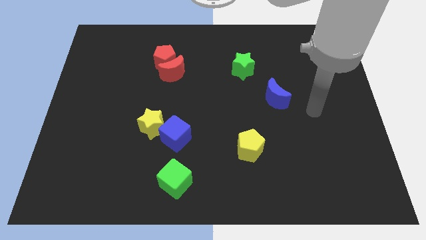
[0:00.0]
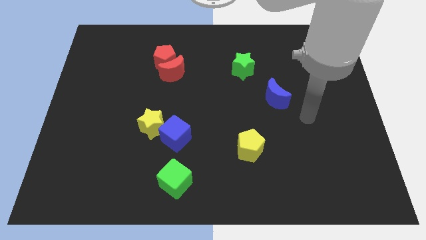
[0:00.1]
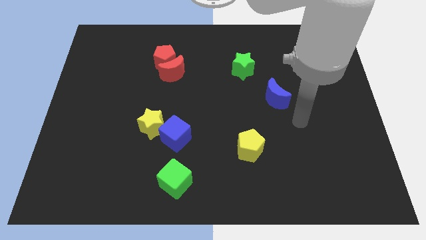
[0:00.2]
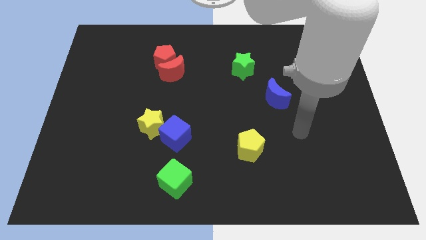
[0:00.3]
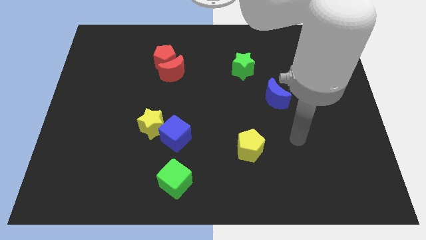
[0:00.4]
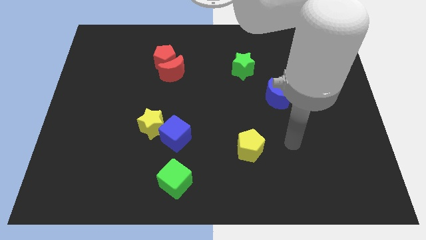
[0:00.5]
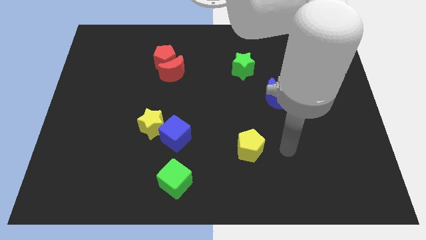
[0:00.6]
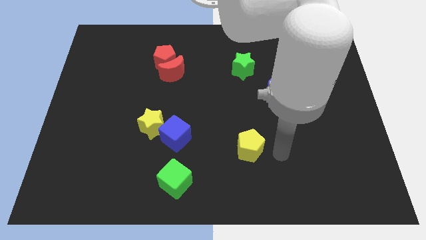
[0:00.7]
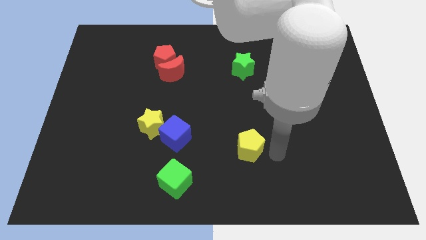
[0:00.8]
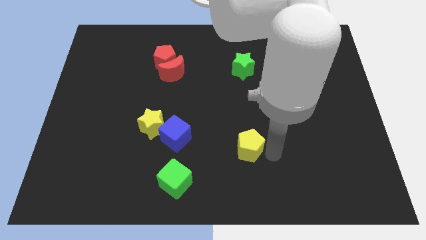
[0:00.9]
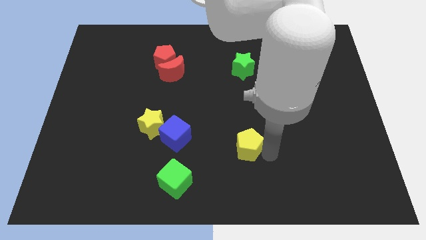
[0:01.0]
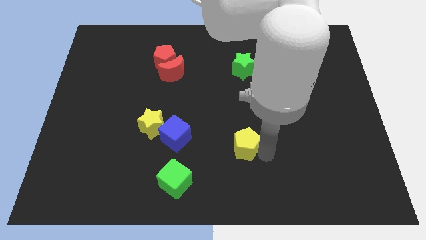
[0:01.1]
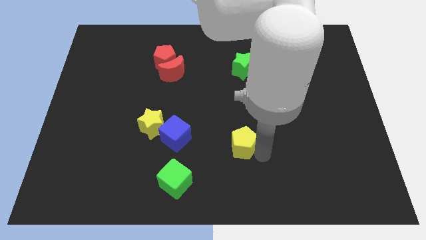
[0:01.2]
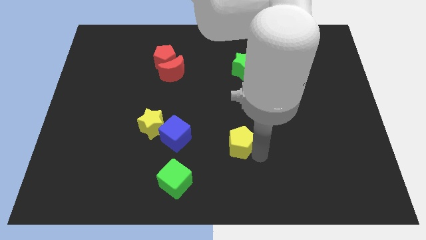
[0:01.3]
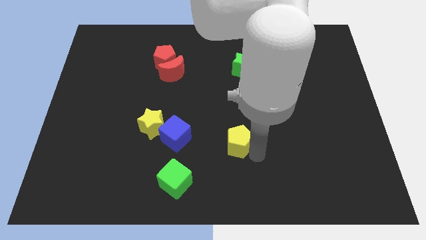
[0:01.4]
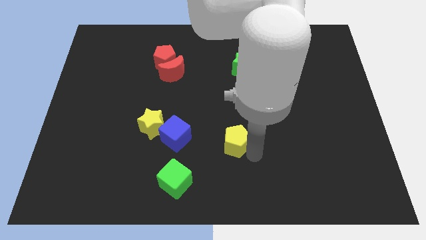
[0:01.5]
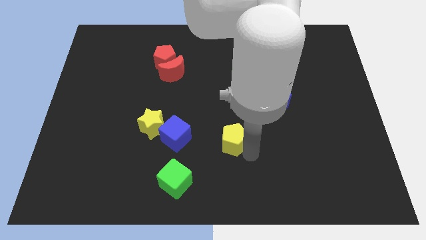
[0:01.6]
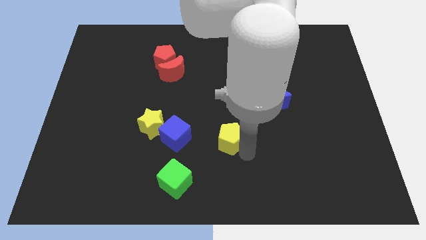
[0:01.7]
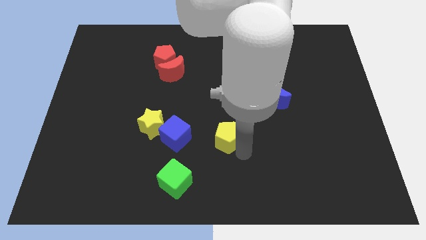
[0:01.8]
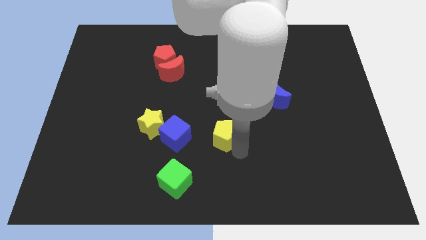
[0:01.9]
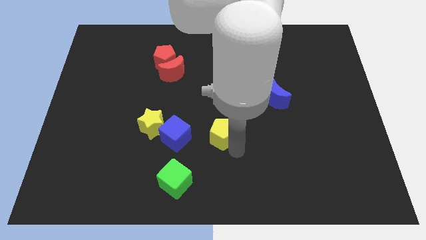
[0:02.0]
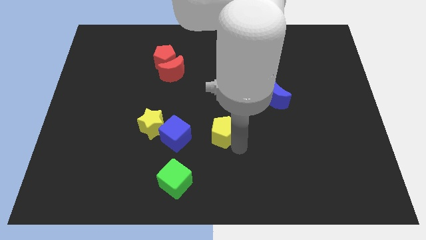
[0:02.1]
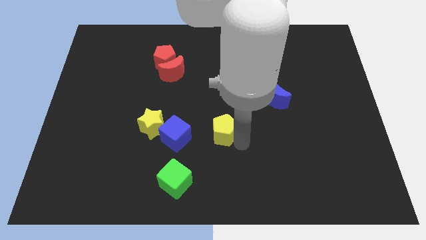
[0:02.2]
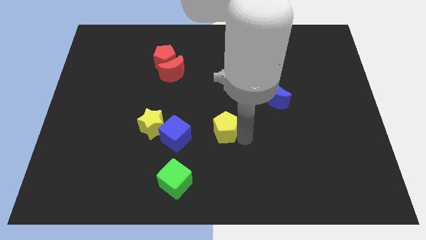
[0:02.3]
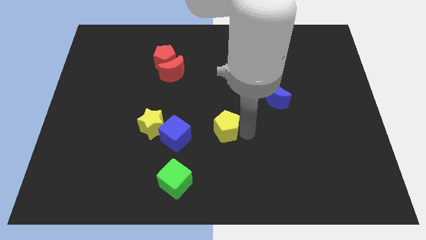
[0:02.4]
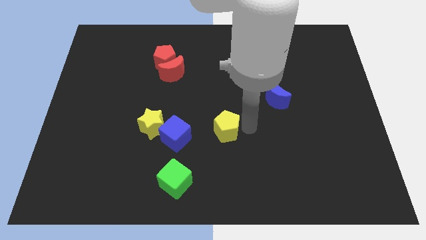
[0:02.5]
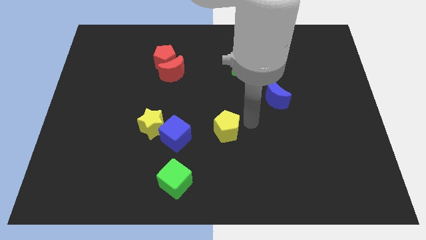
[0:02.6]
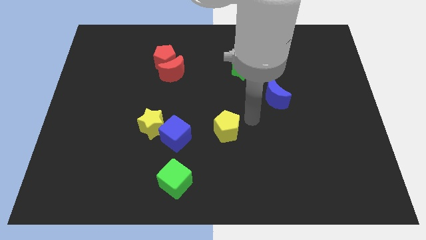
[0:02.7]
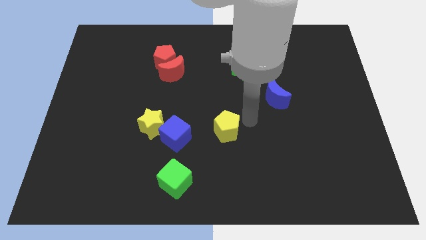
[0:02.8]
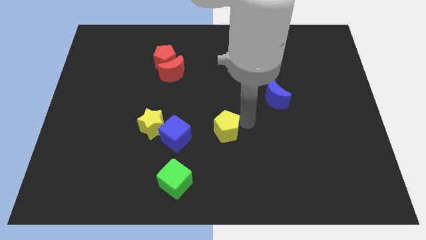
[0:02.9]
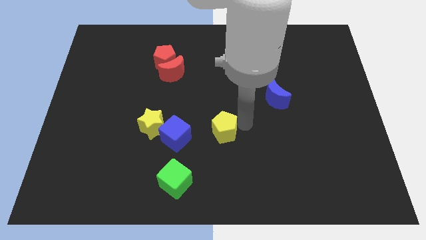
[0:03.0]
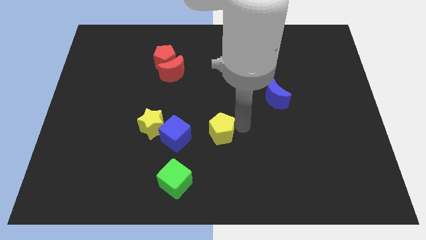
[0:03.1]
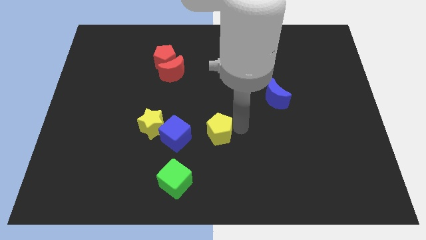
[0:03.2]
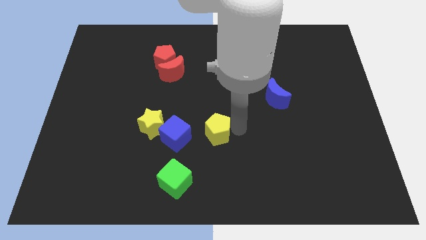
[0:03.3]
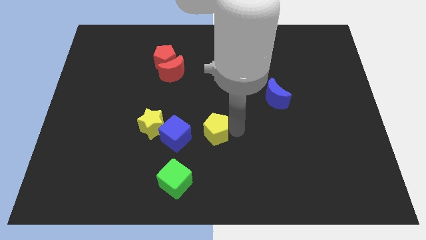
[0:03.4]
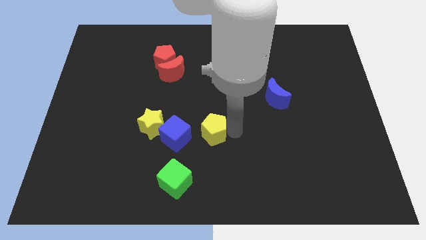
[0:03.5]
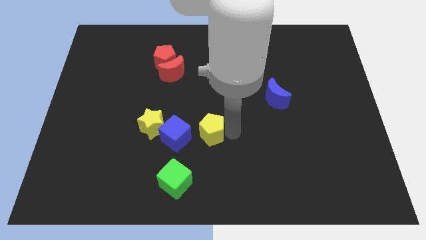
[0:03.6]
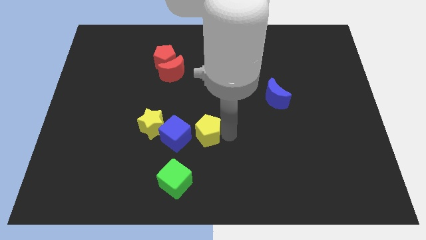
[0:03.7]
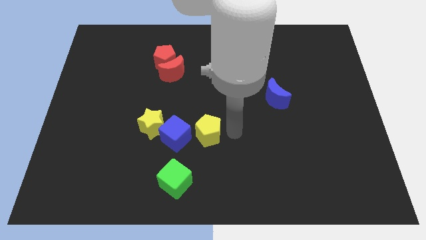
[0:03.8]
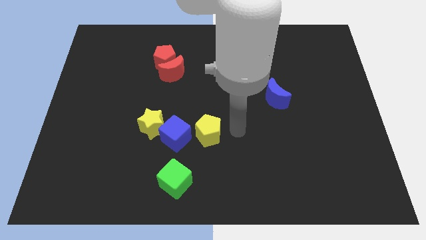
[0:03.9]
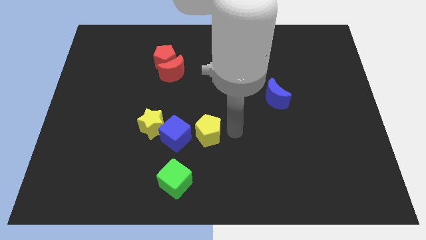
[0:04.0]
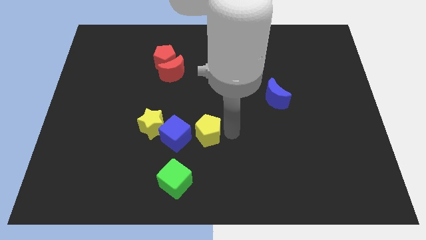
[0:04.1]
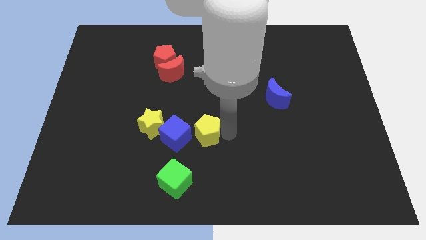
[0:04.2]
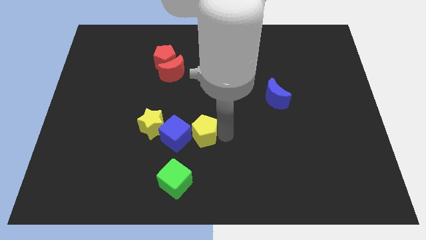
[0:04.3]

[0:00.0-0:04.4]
slide the yellow pentagon next to the blue cube

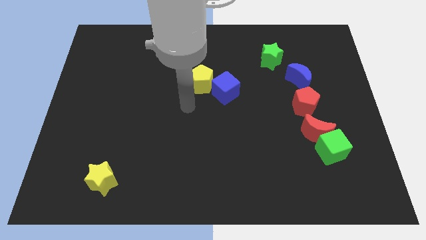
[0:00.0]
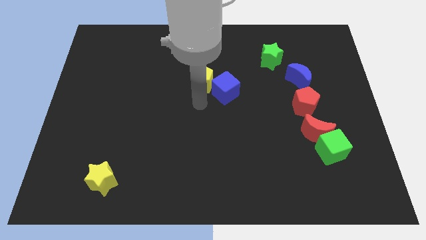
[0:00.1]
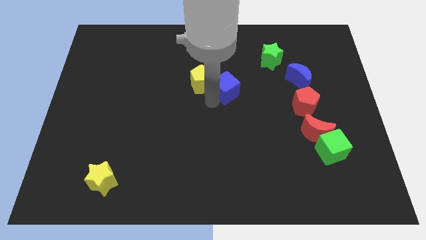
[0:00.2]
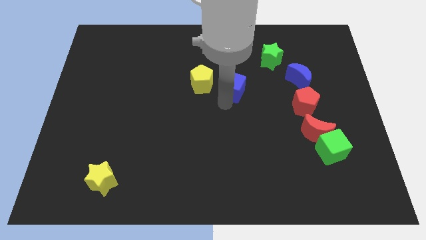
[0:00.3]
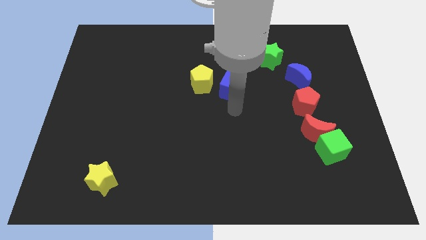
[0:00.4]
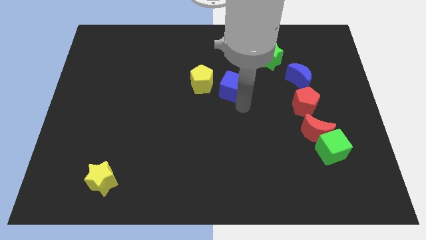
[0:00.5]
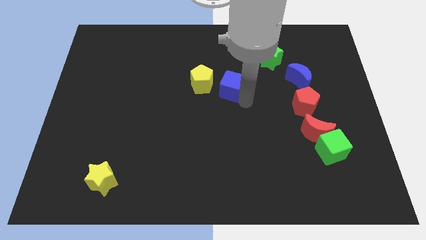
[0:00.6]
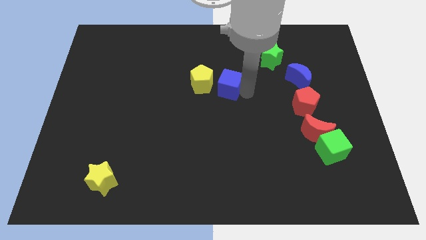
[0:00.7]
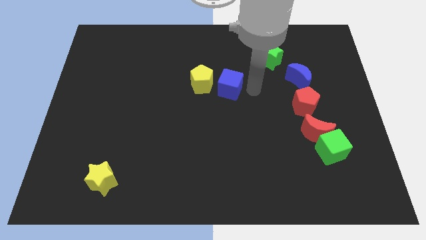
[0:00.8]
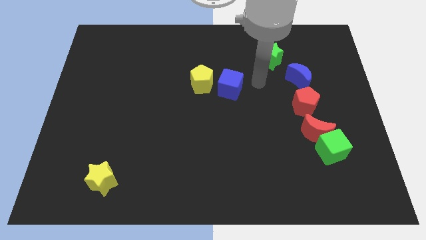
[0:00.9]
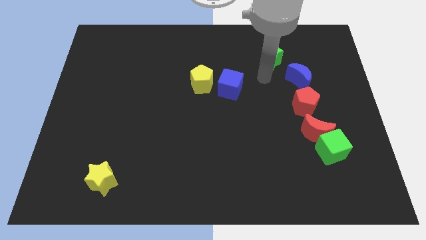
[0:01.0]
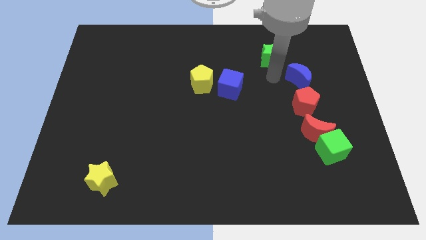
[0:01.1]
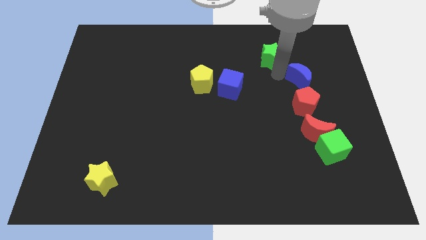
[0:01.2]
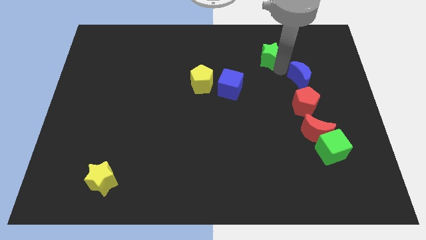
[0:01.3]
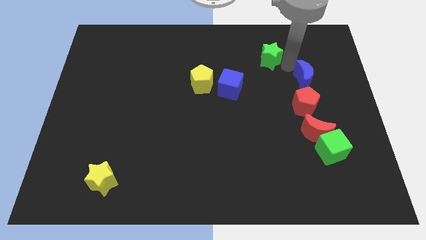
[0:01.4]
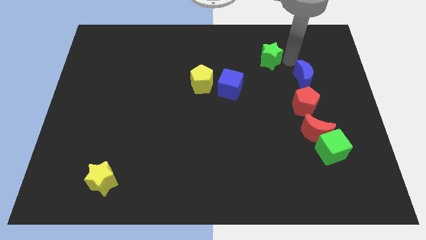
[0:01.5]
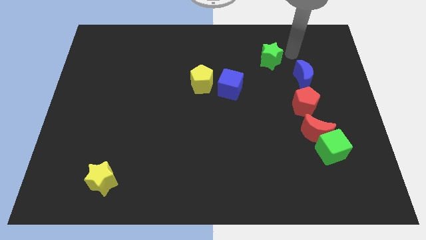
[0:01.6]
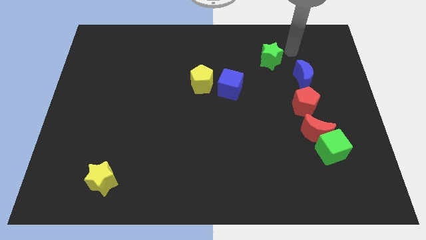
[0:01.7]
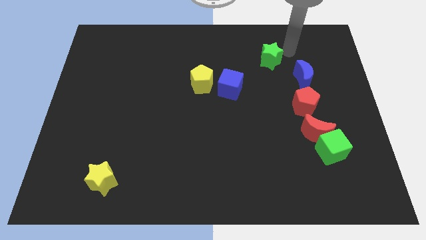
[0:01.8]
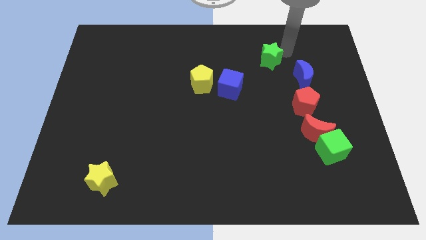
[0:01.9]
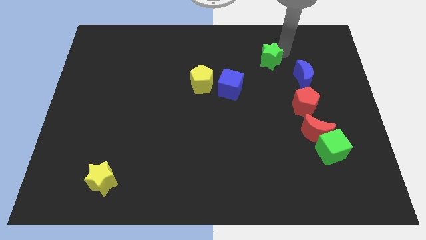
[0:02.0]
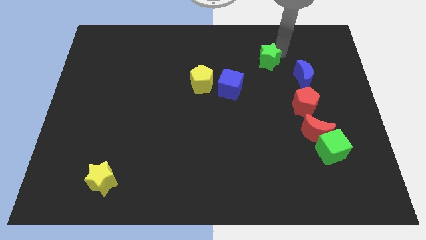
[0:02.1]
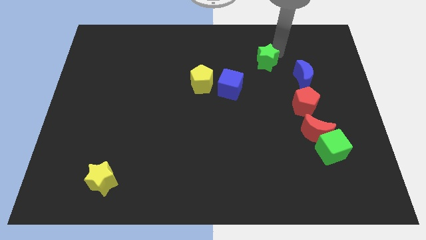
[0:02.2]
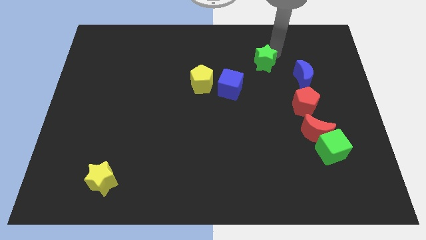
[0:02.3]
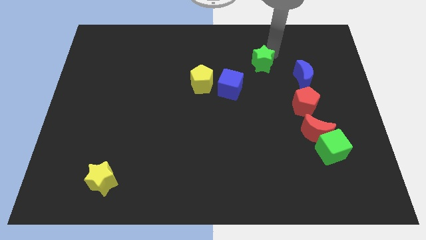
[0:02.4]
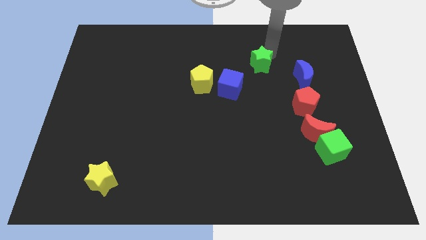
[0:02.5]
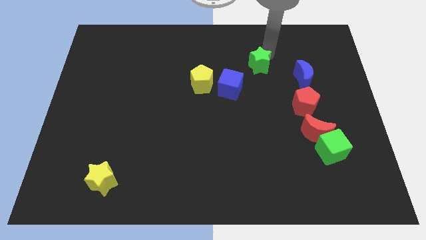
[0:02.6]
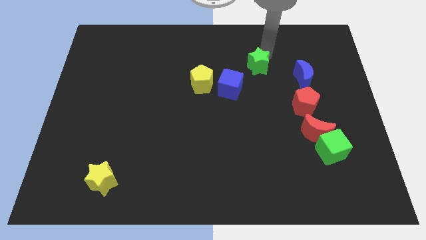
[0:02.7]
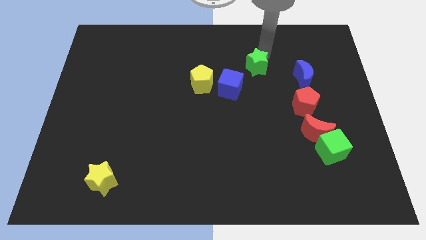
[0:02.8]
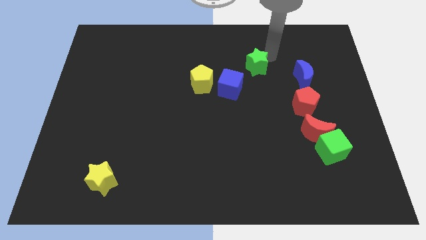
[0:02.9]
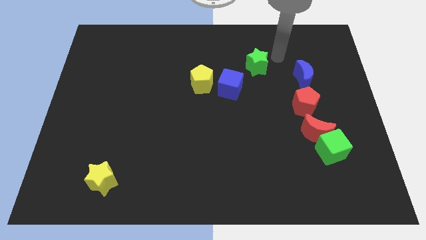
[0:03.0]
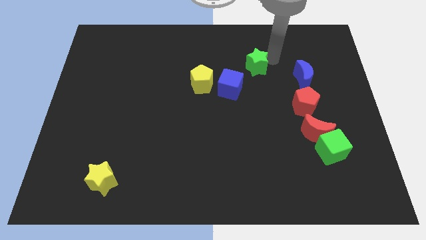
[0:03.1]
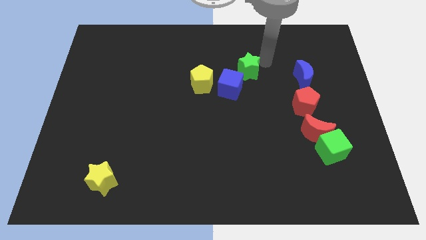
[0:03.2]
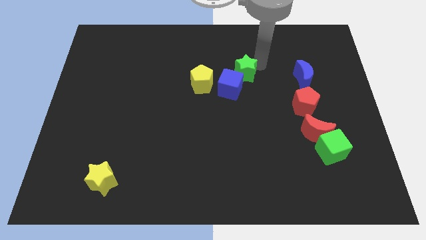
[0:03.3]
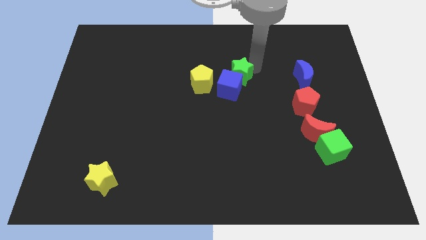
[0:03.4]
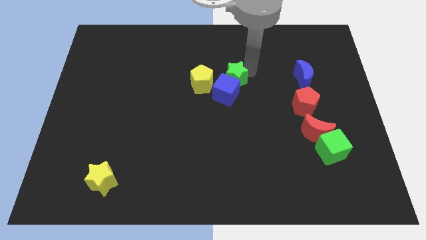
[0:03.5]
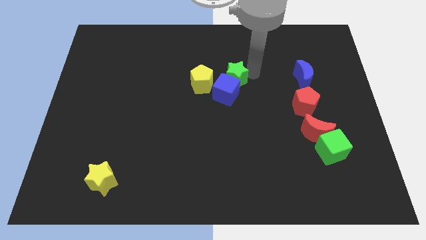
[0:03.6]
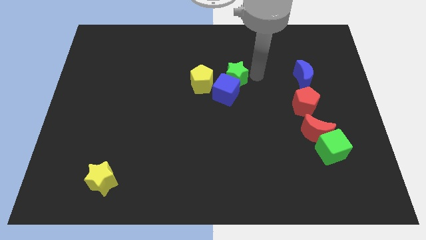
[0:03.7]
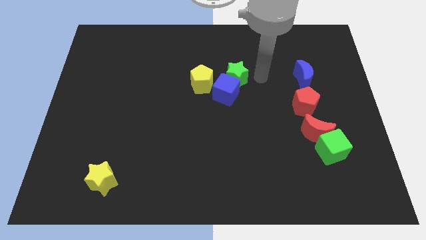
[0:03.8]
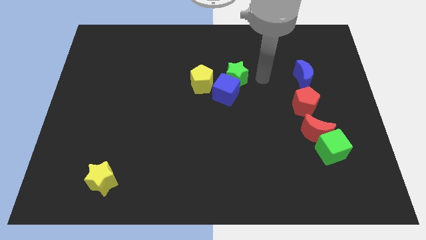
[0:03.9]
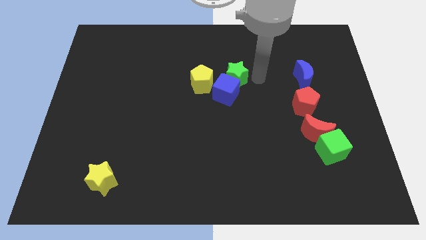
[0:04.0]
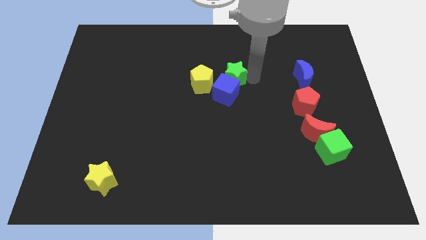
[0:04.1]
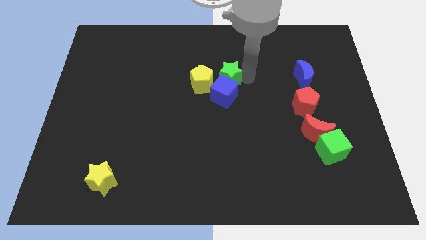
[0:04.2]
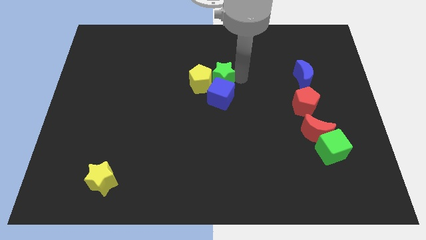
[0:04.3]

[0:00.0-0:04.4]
push the green star to the yellow pentagon
